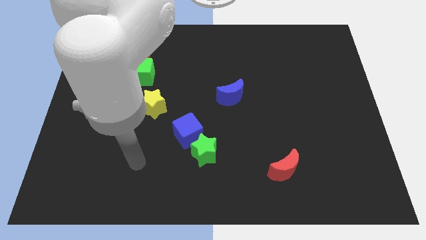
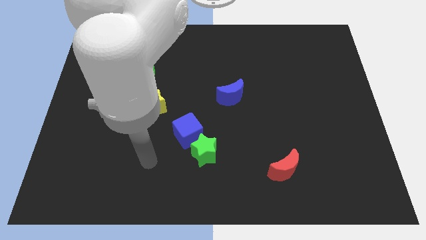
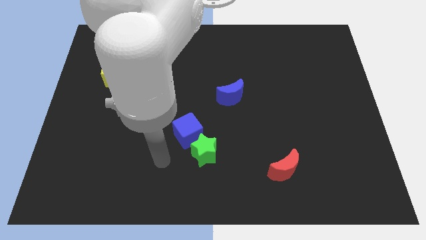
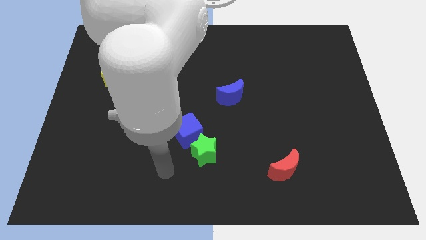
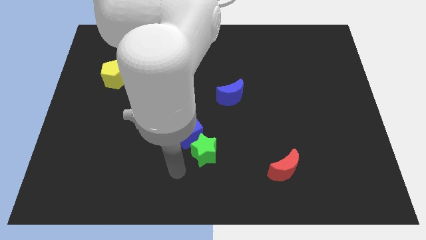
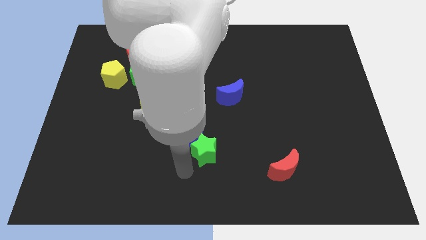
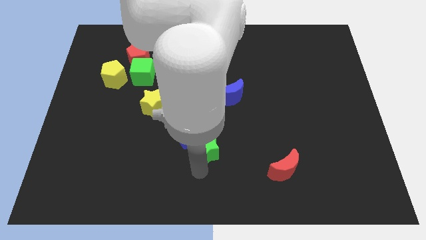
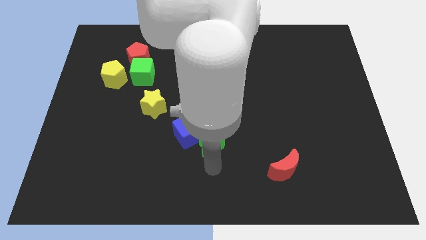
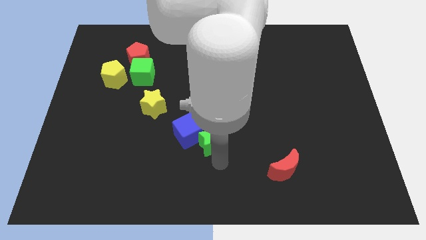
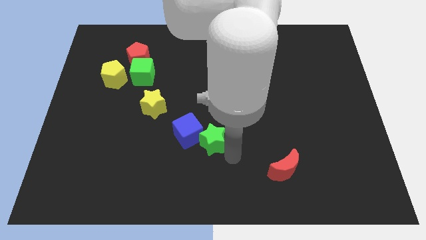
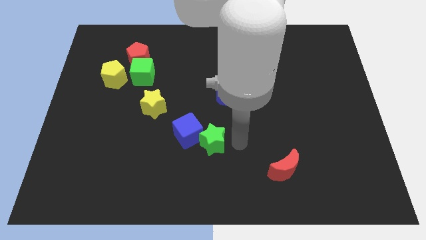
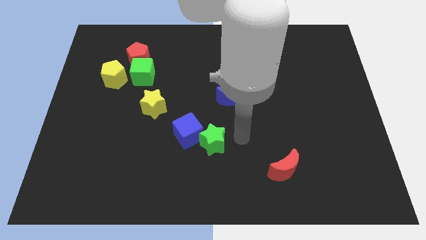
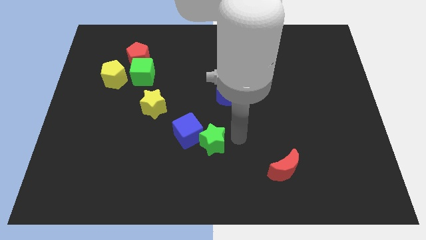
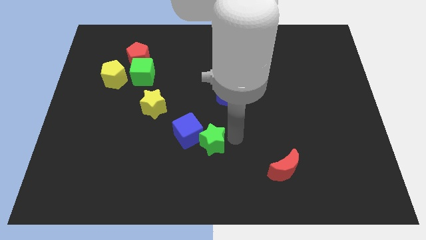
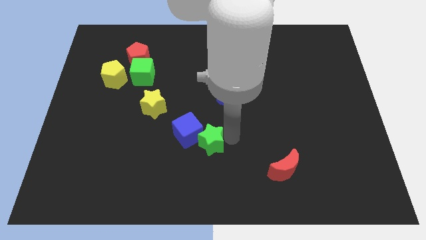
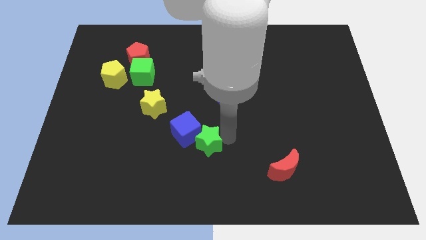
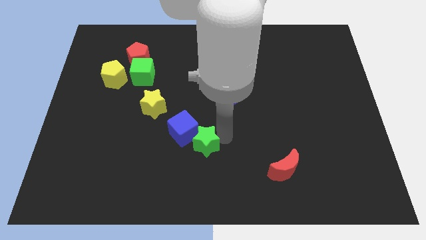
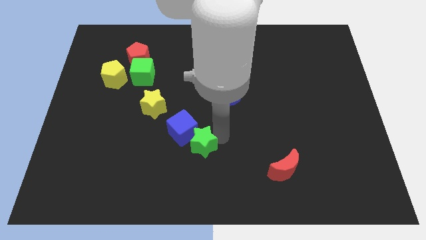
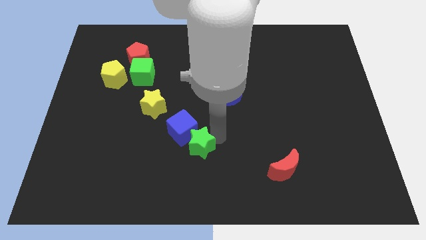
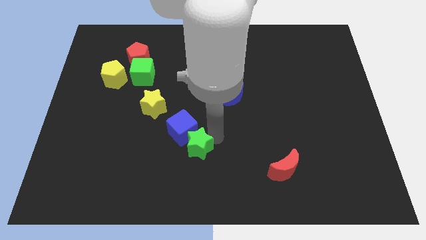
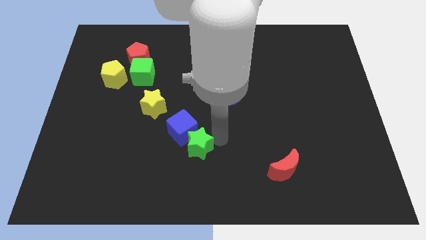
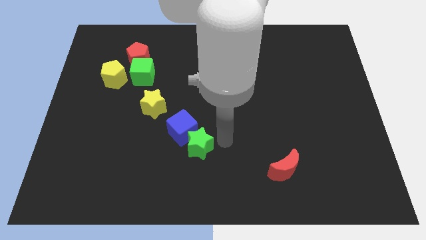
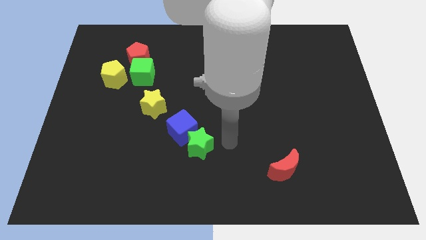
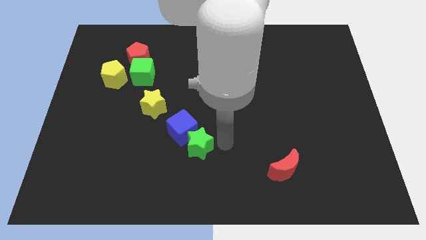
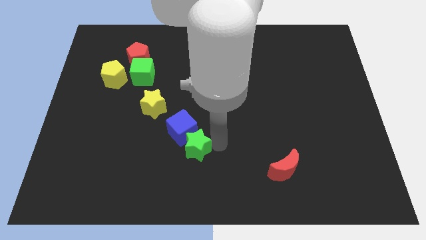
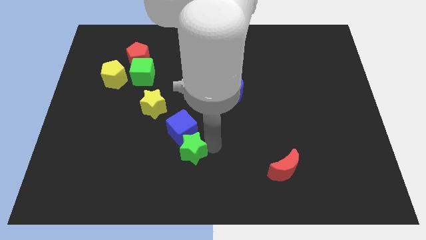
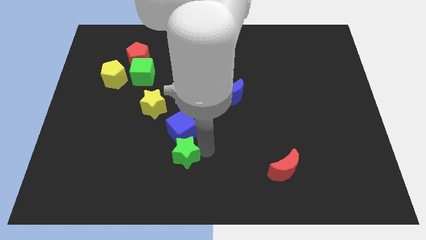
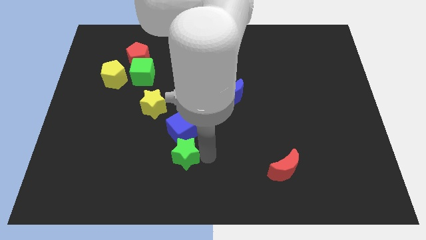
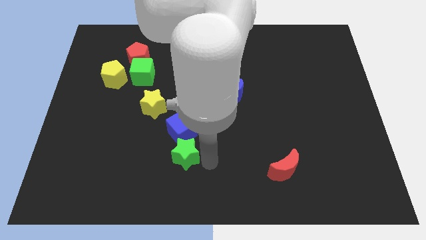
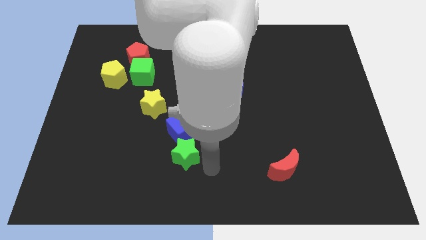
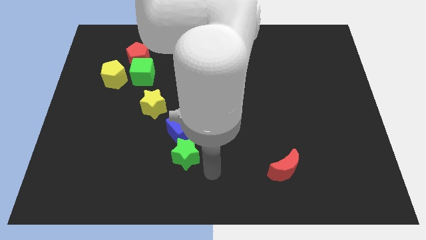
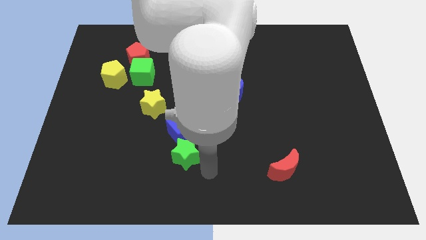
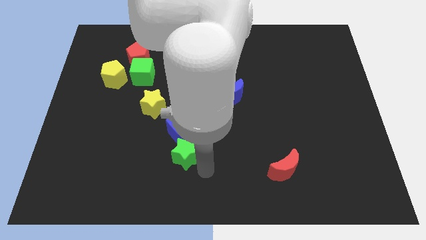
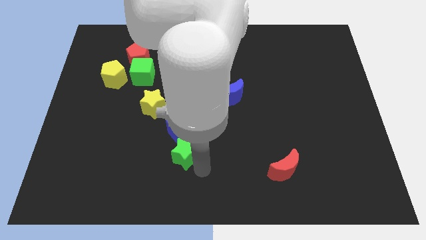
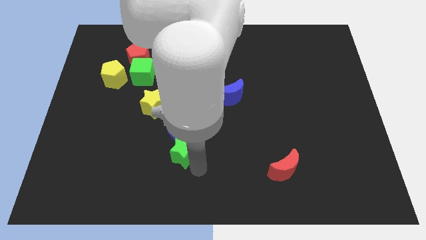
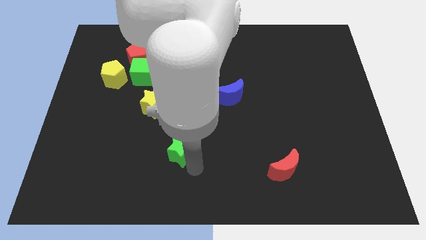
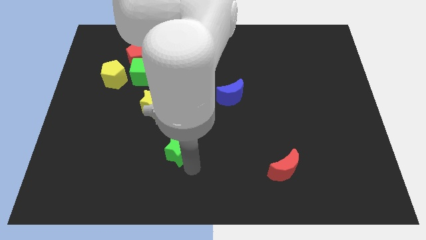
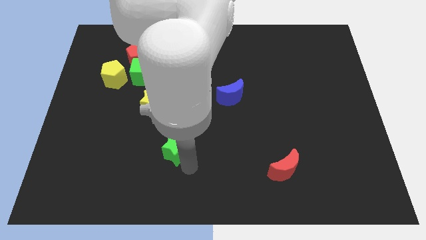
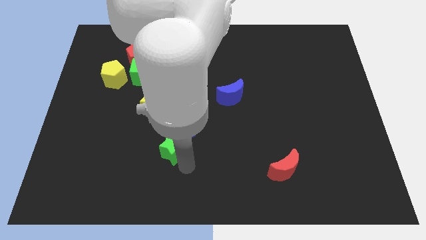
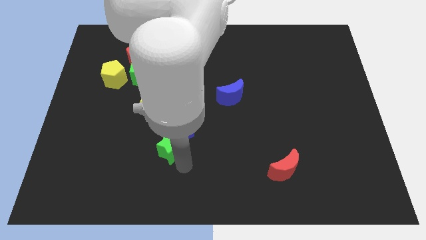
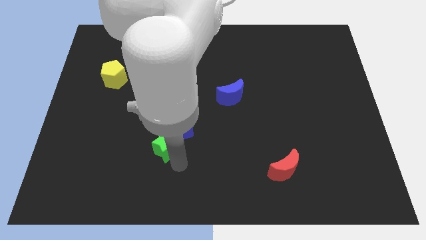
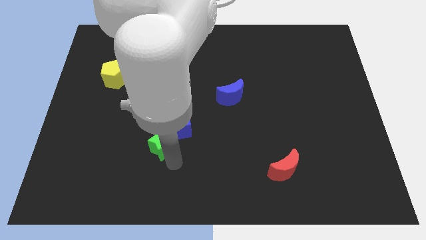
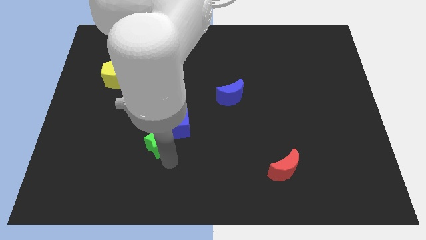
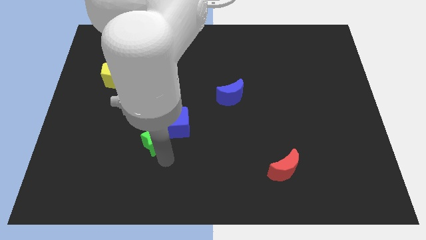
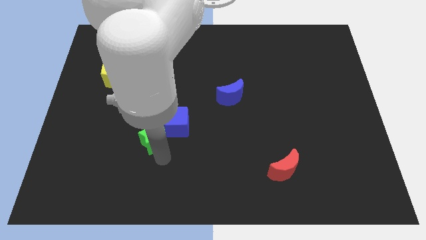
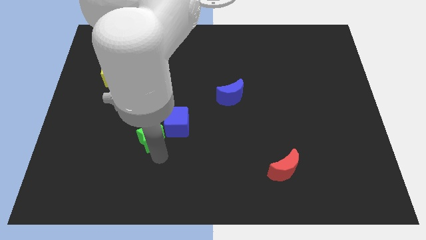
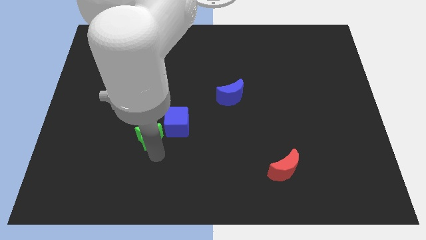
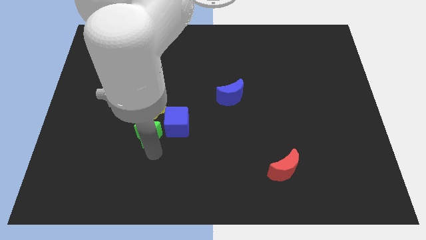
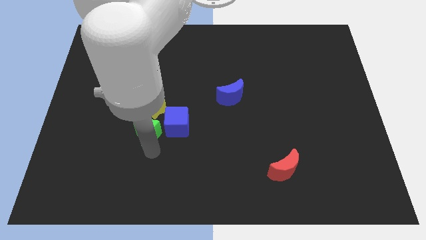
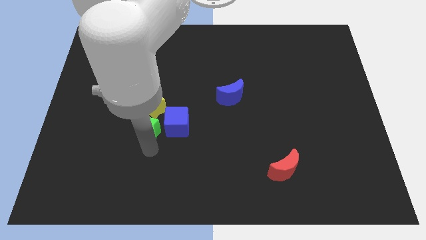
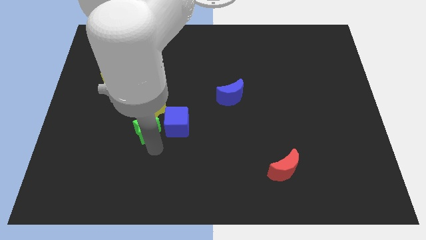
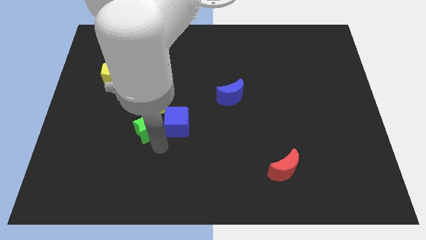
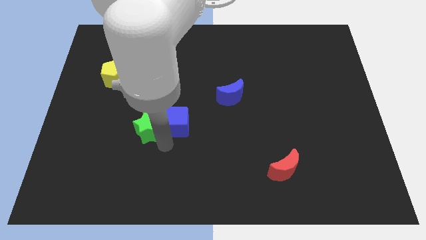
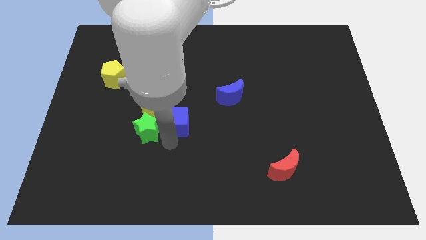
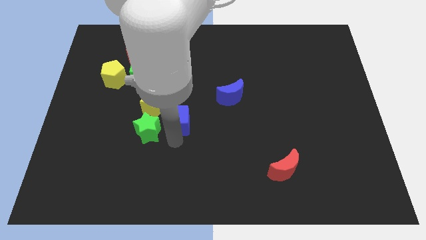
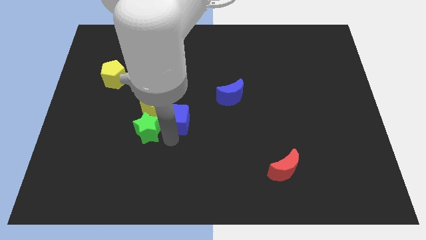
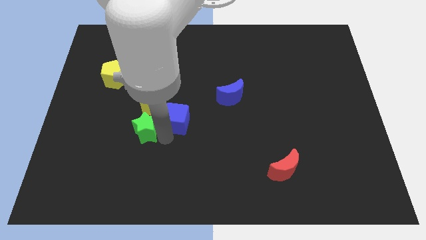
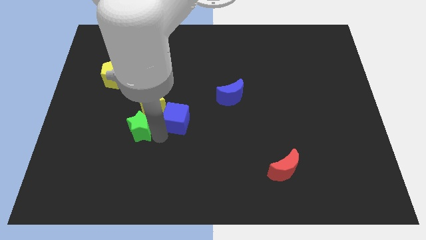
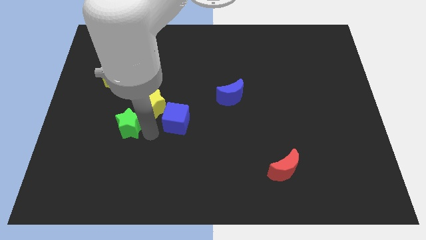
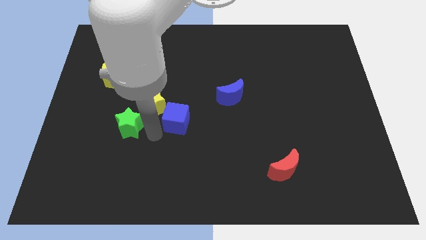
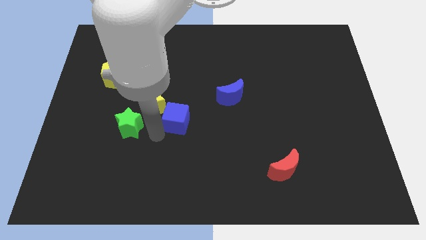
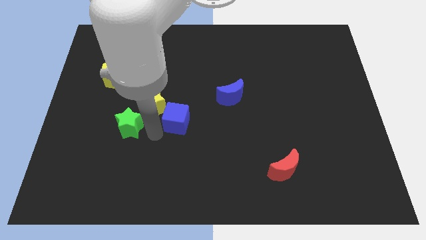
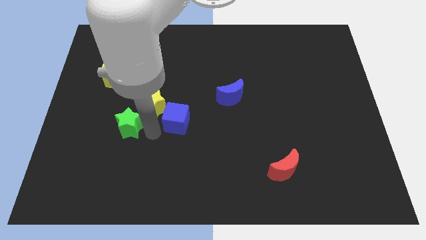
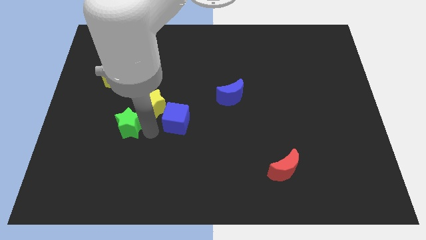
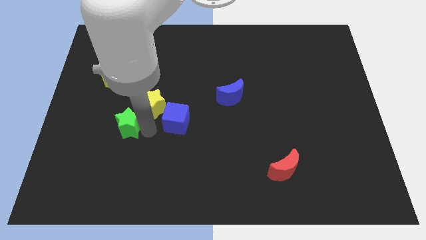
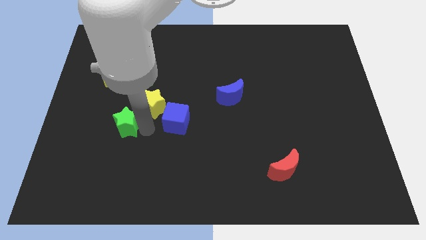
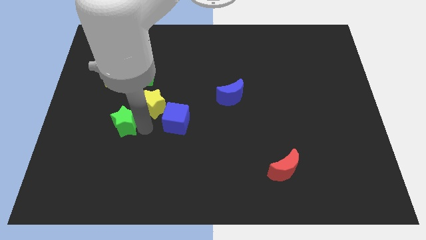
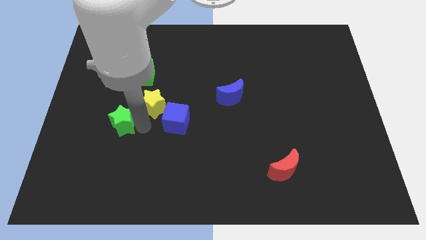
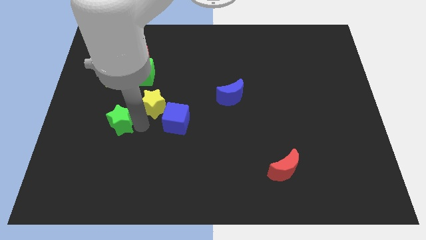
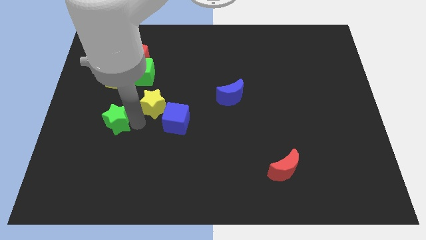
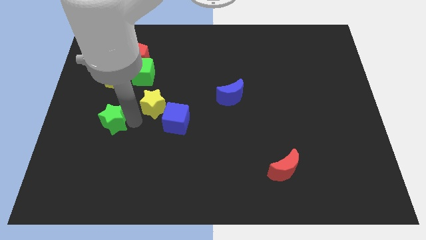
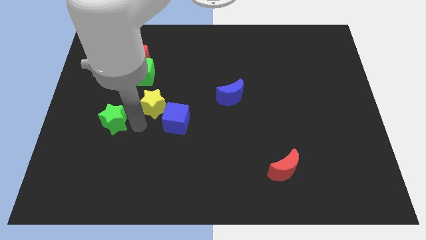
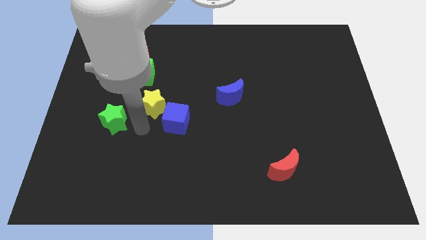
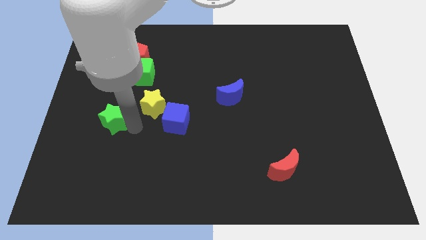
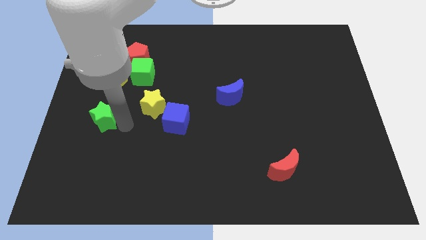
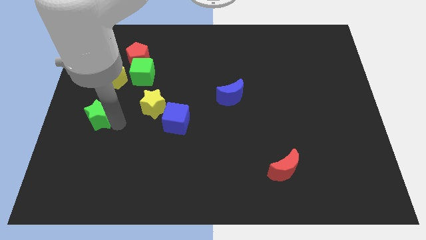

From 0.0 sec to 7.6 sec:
push the green star to the center left
